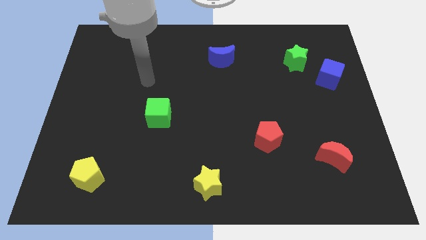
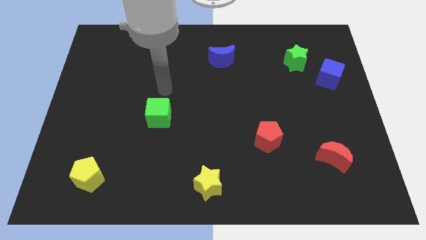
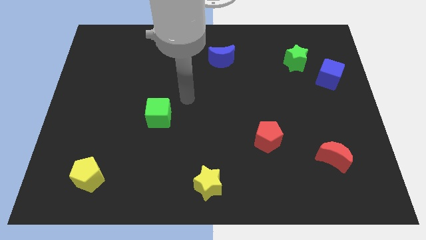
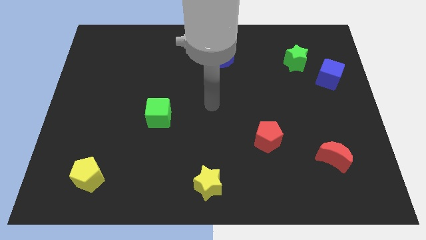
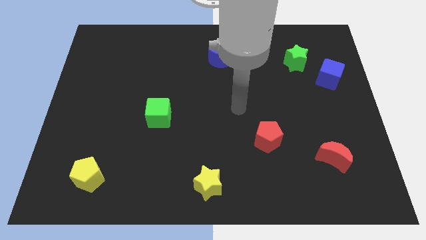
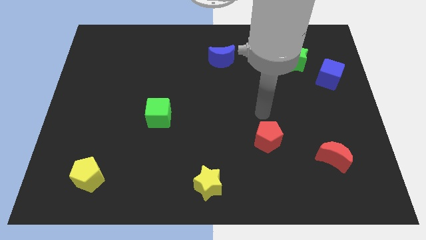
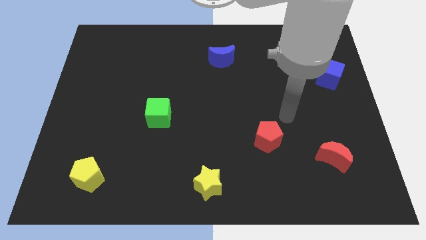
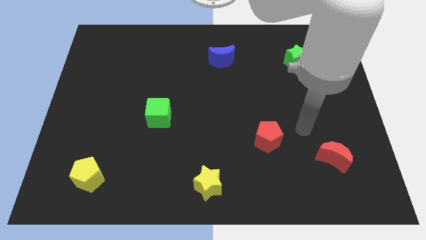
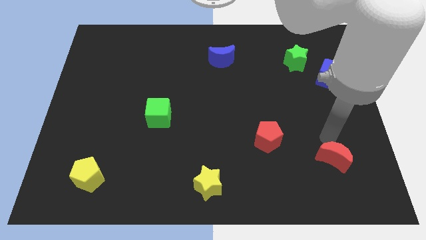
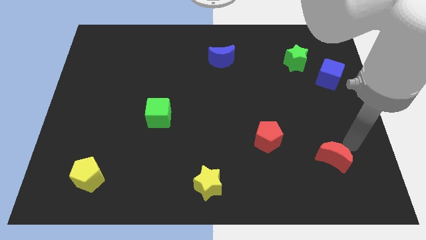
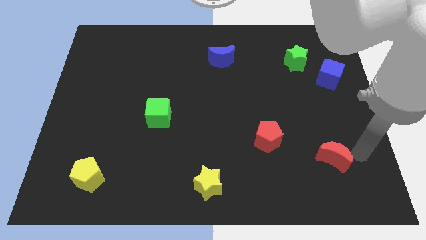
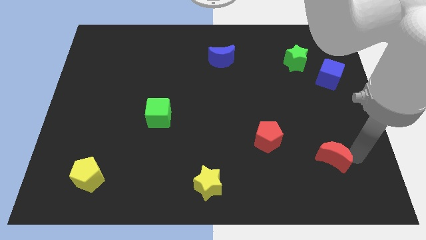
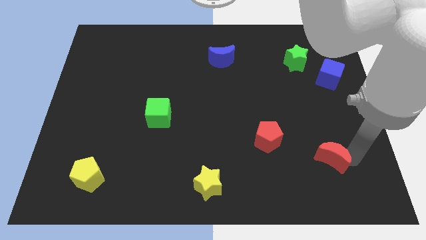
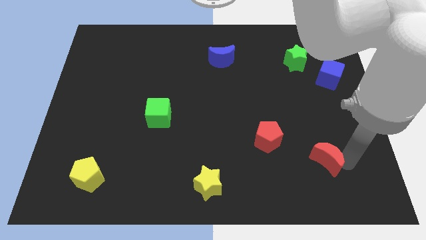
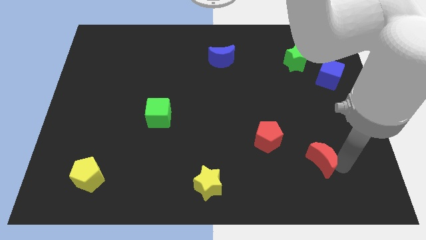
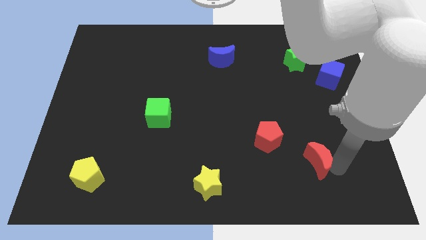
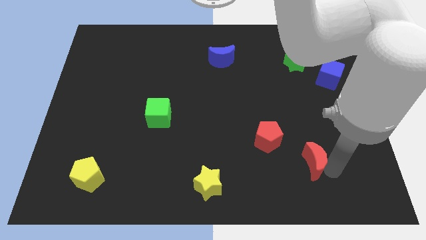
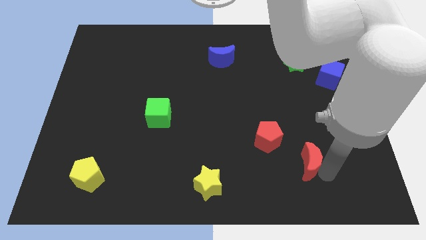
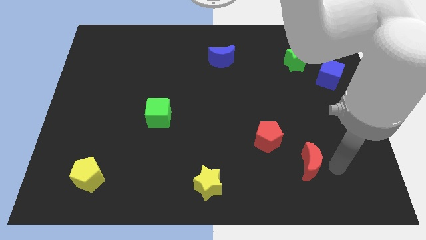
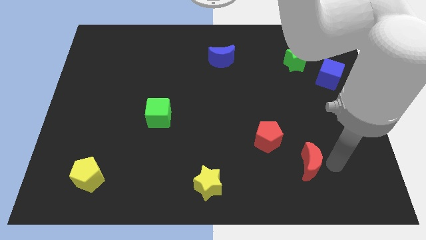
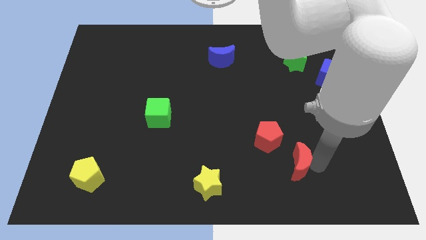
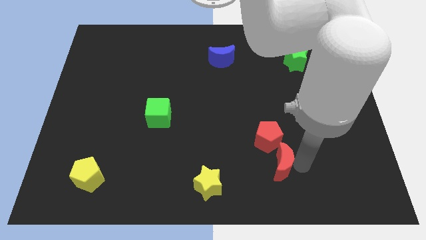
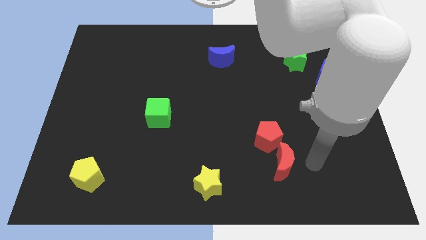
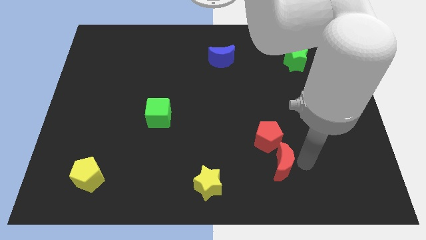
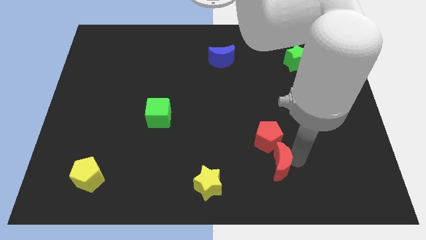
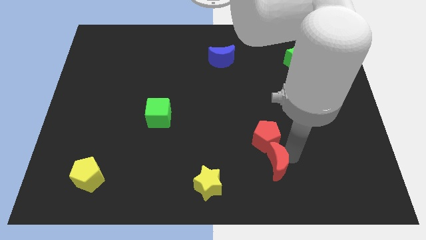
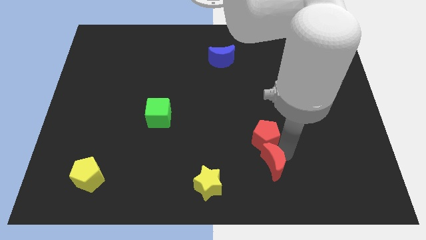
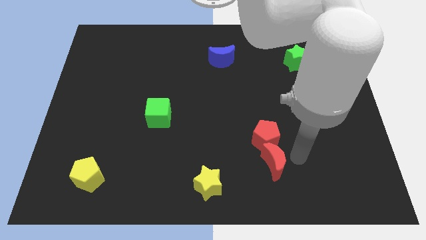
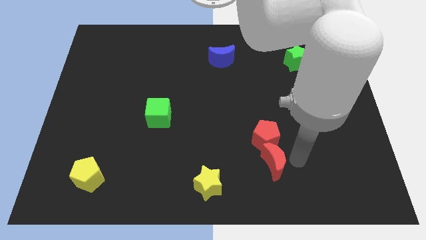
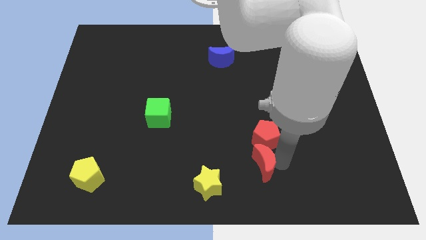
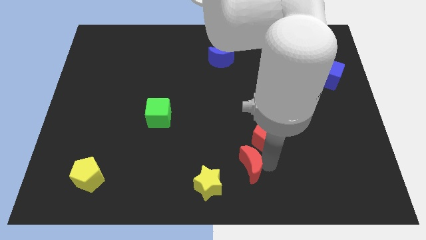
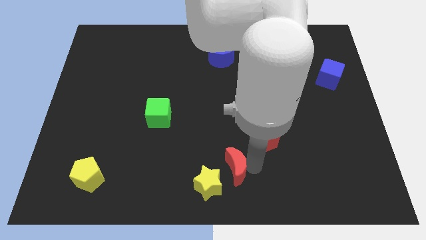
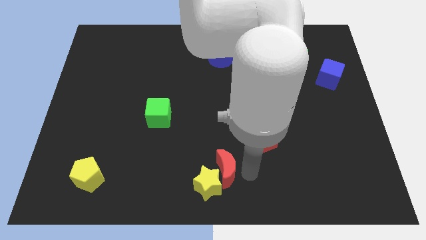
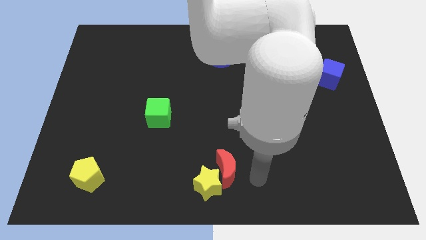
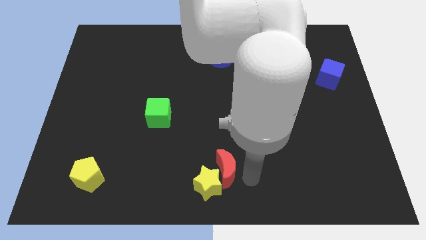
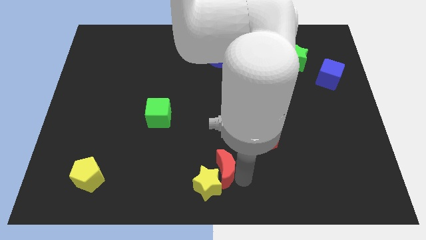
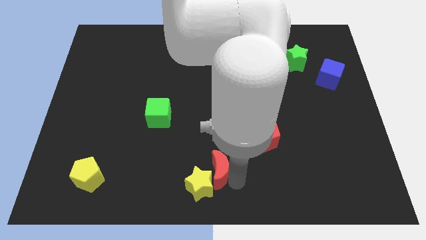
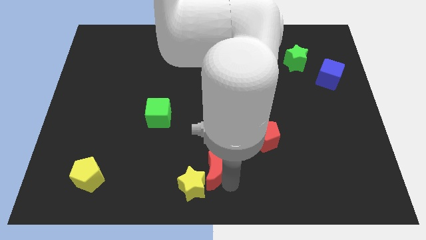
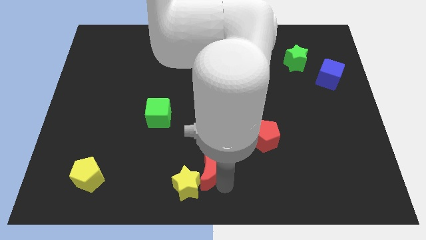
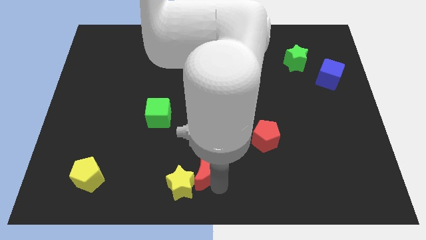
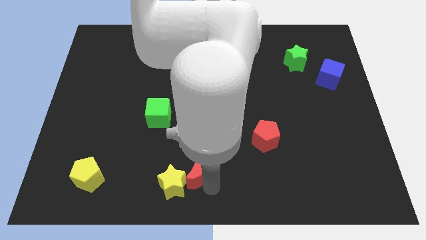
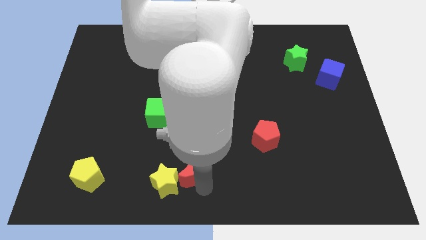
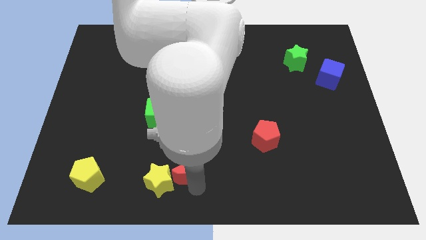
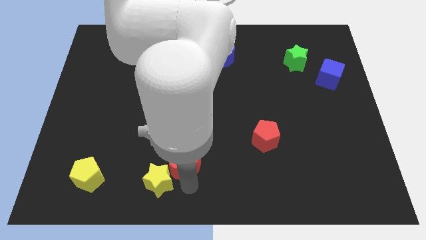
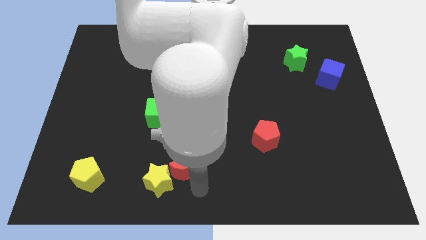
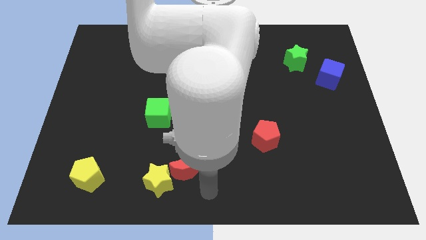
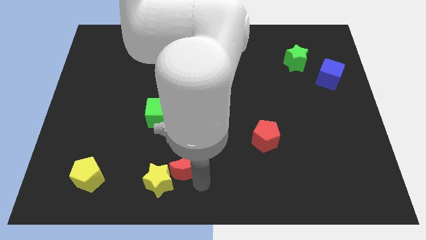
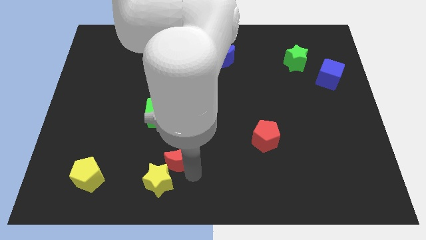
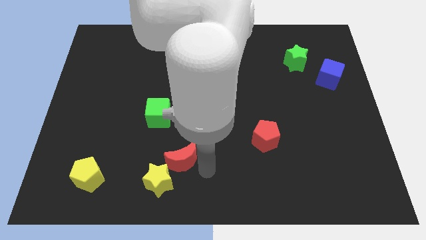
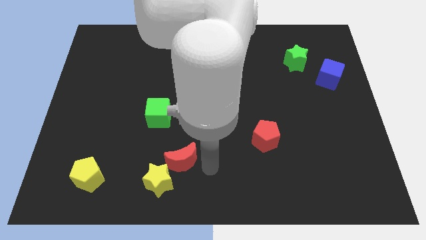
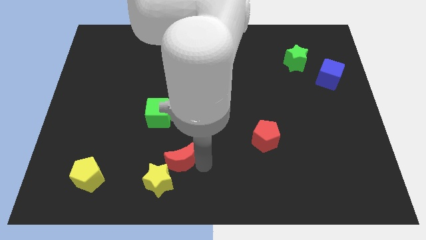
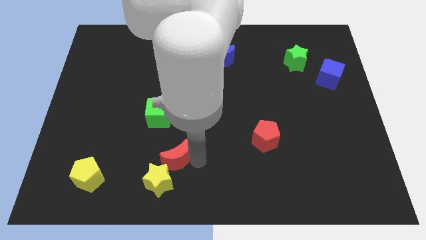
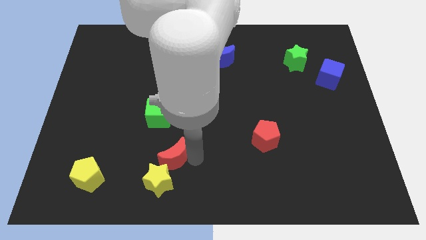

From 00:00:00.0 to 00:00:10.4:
put the red moon to the bottom of the green cube

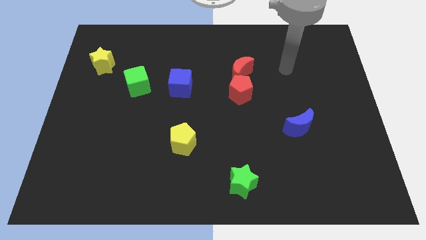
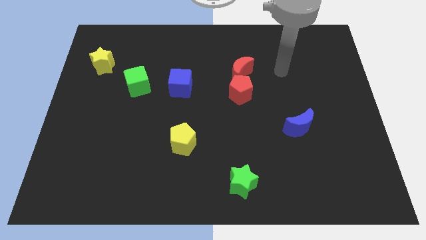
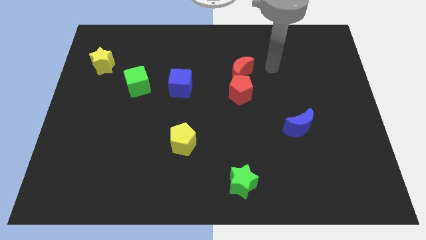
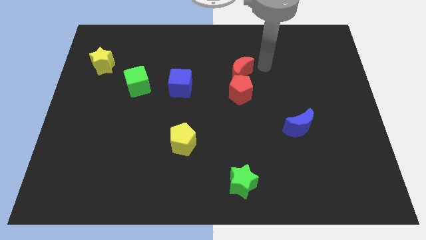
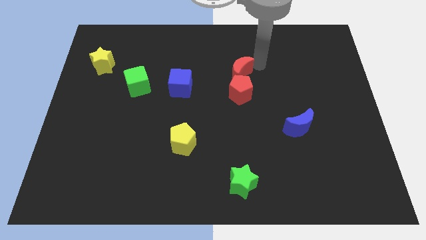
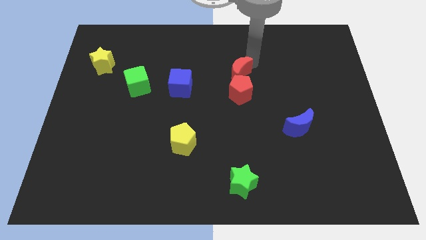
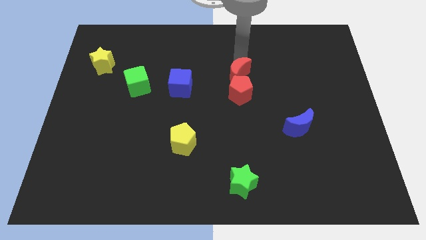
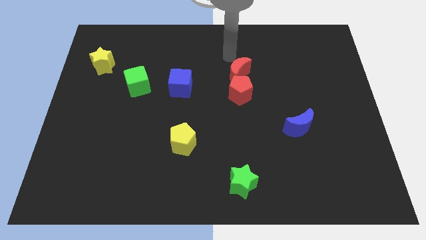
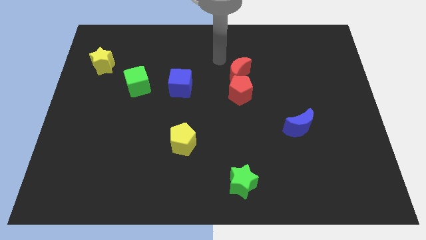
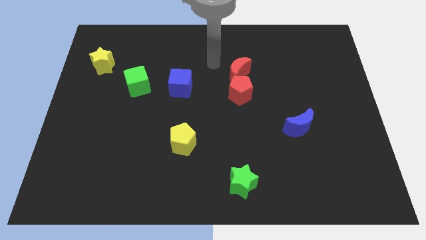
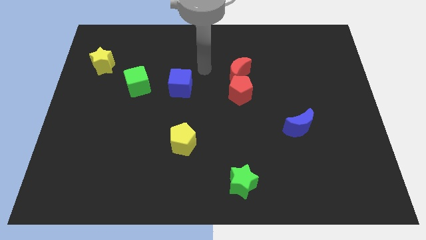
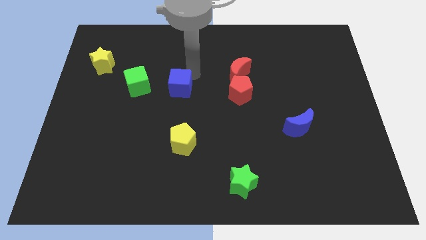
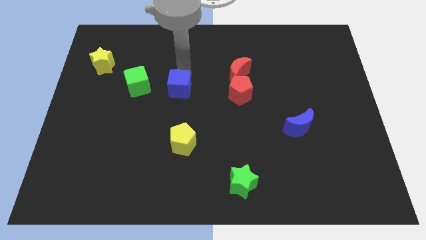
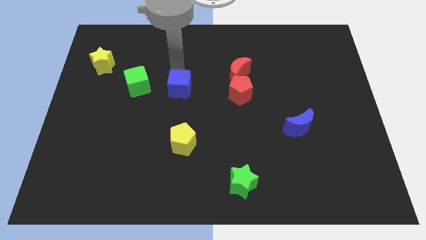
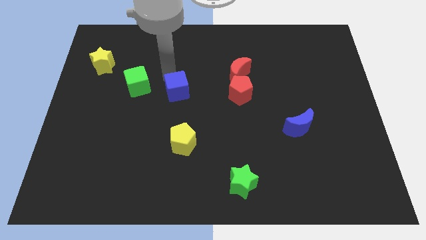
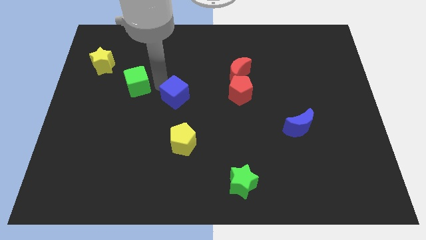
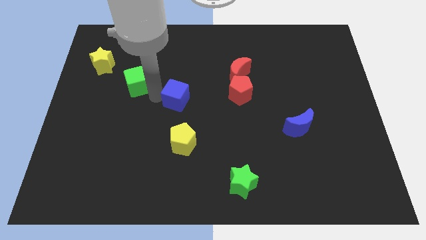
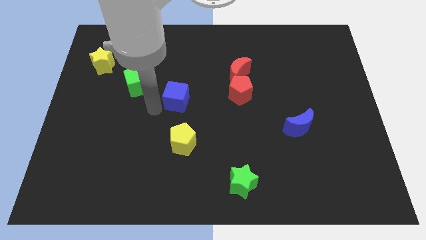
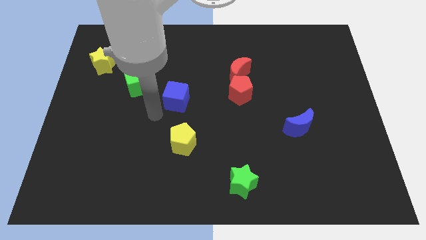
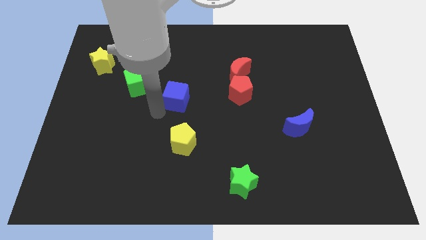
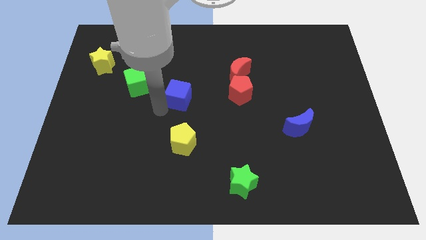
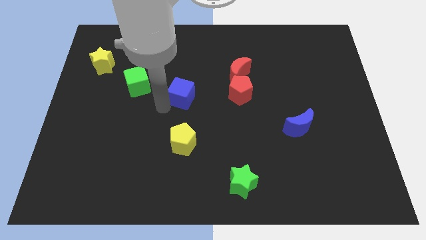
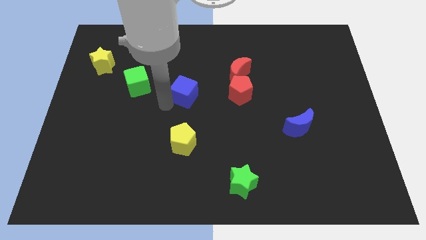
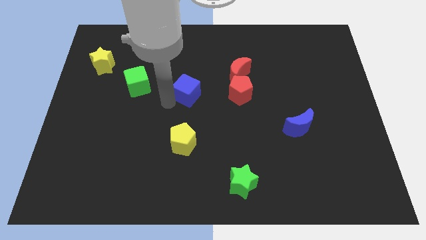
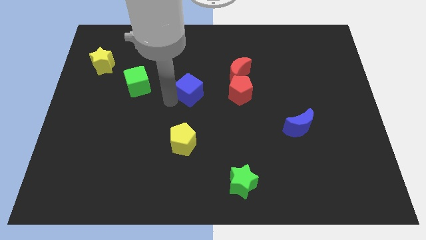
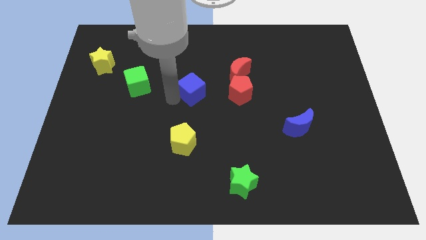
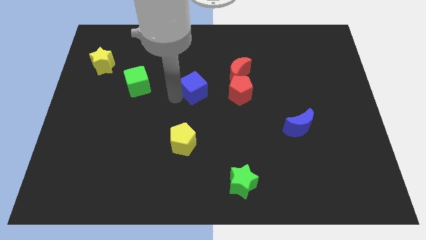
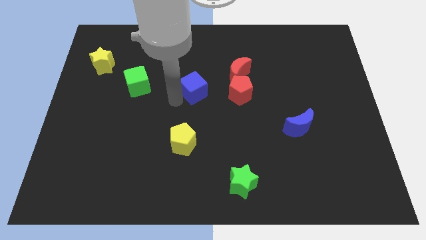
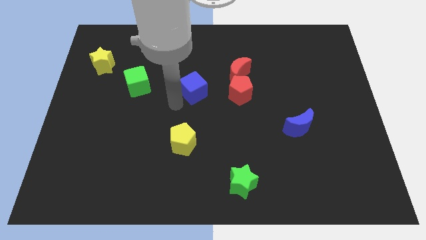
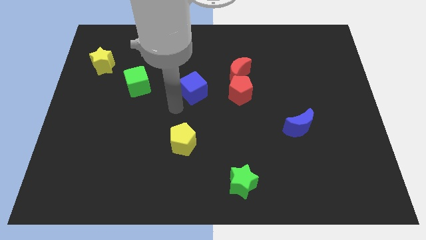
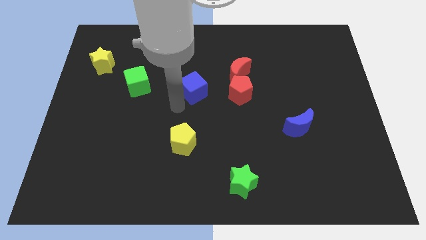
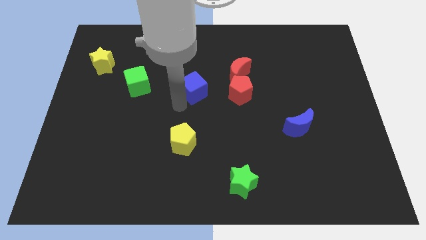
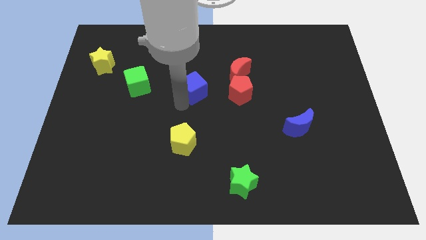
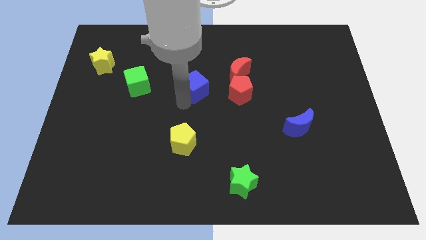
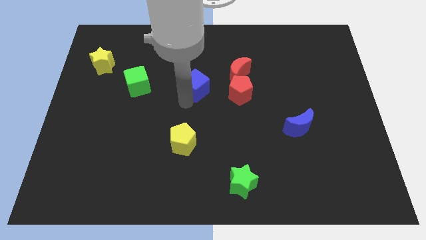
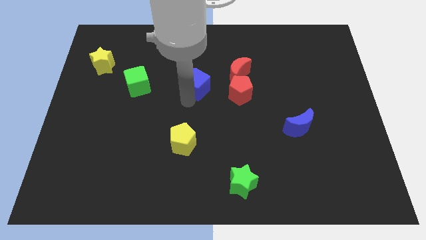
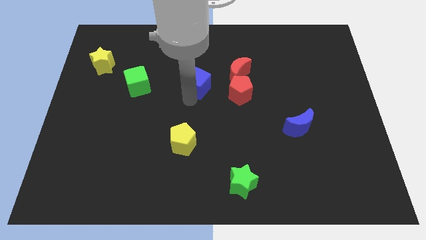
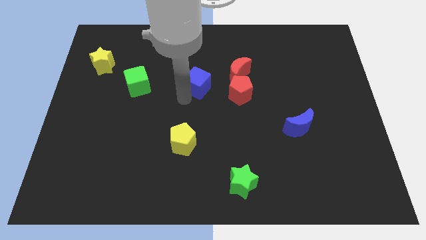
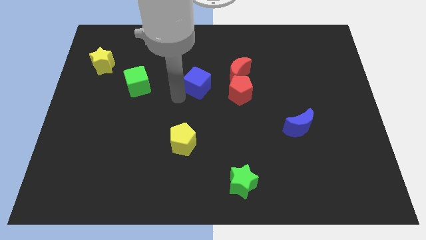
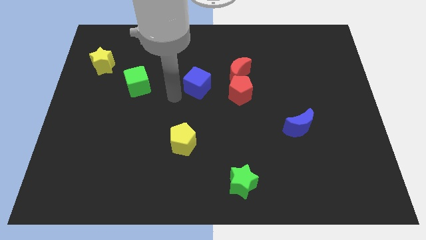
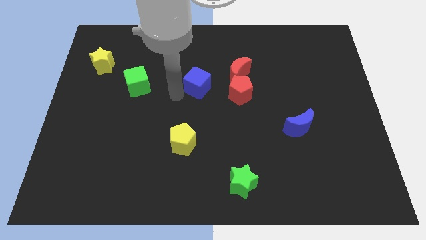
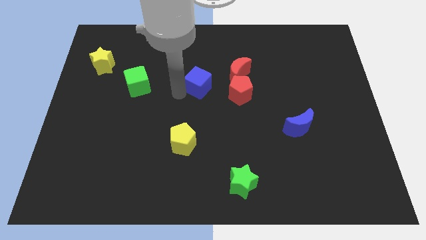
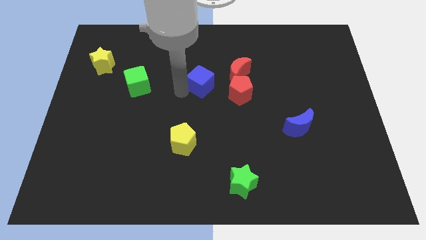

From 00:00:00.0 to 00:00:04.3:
put the blue cube diagonally up and to the left of the red pentagon
